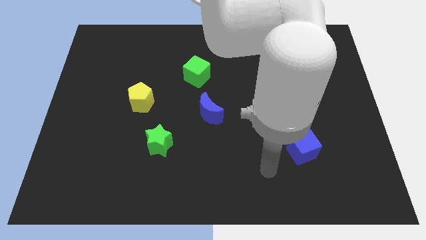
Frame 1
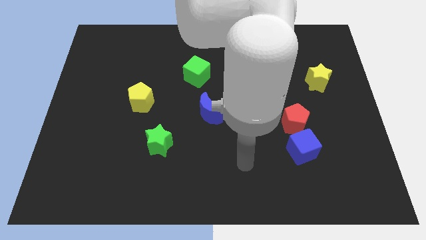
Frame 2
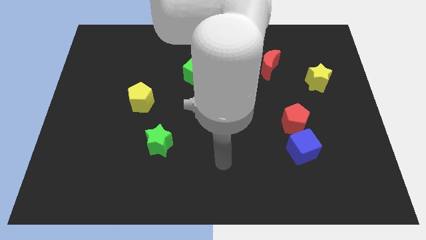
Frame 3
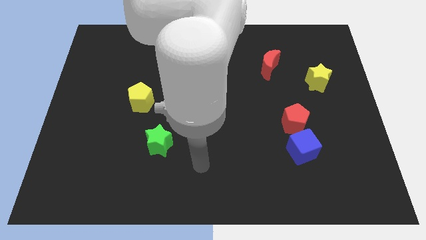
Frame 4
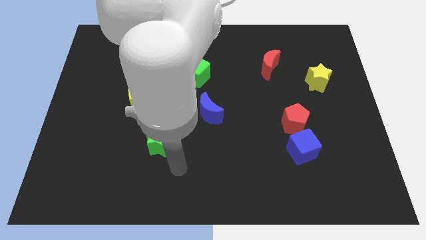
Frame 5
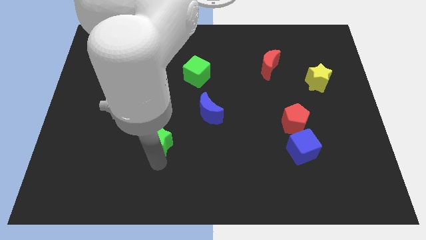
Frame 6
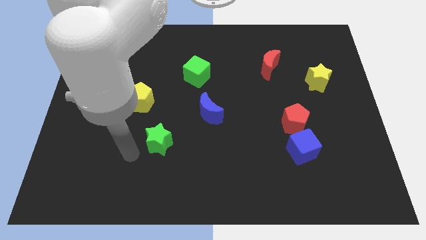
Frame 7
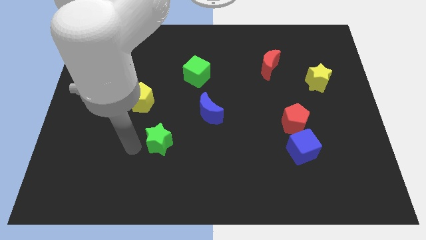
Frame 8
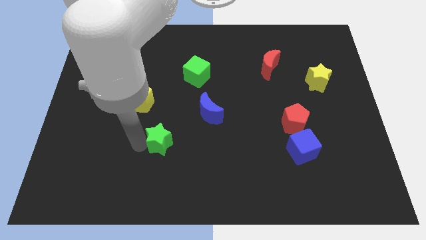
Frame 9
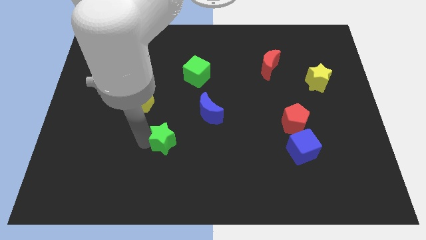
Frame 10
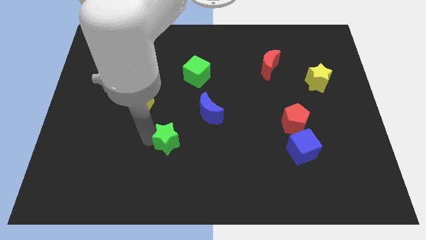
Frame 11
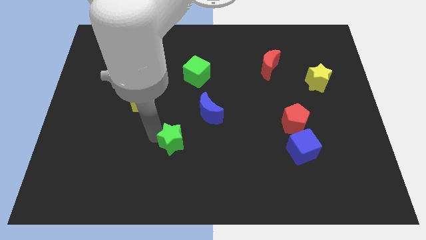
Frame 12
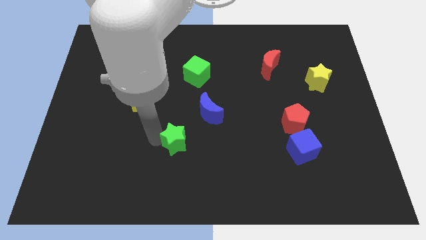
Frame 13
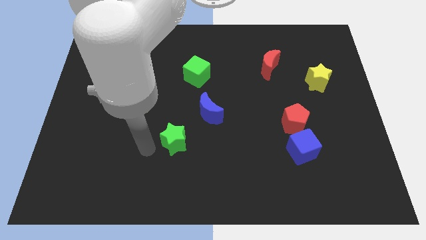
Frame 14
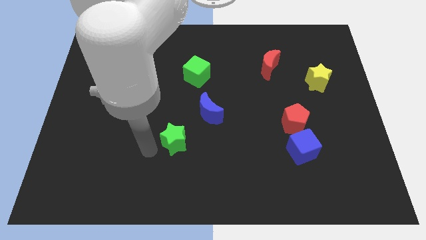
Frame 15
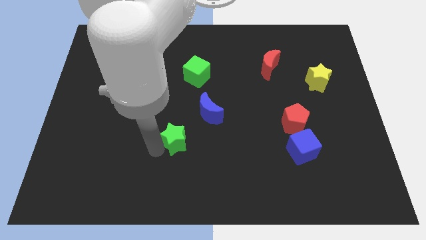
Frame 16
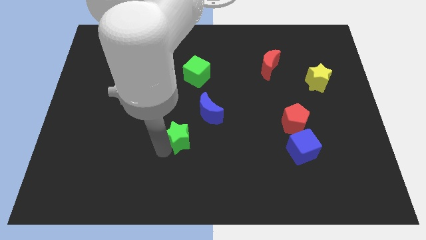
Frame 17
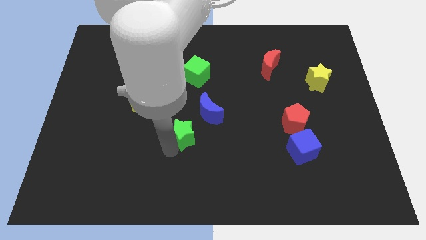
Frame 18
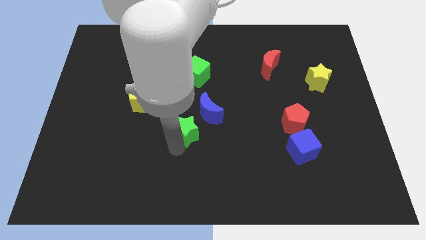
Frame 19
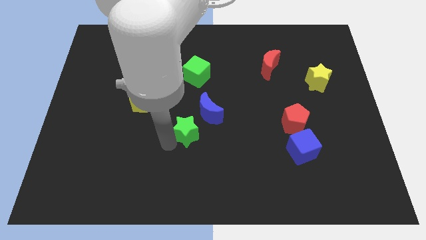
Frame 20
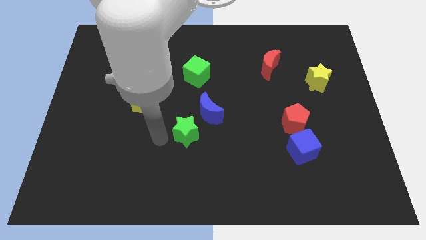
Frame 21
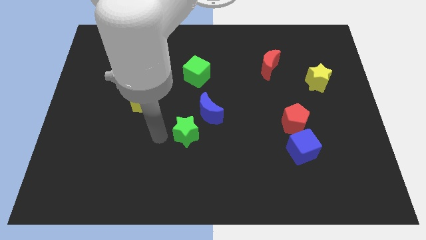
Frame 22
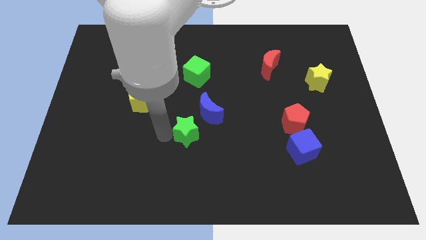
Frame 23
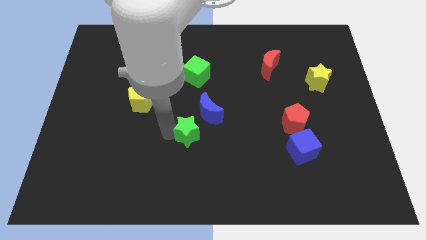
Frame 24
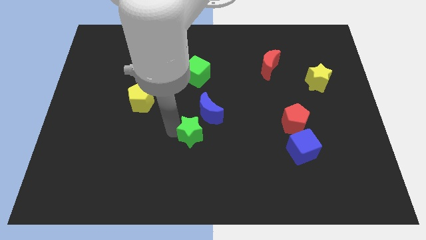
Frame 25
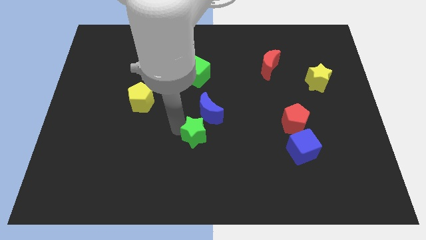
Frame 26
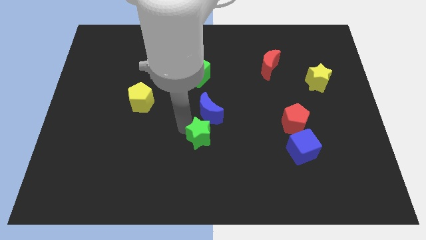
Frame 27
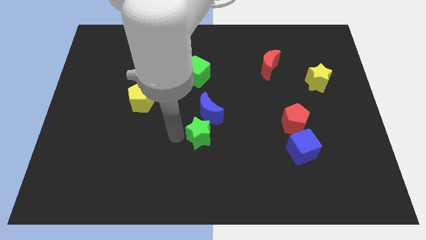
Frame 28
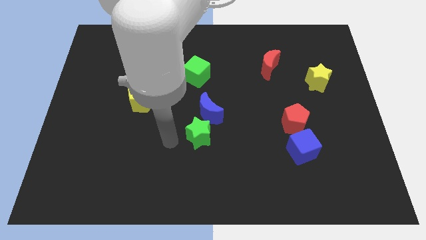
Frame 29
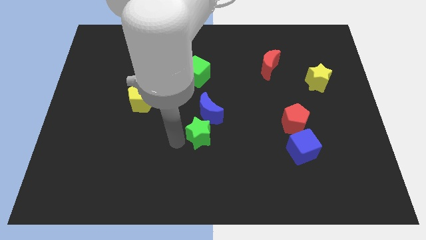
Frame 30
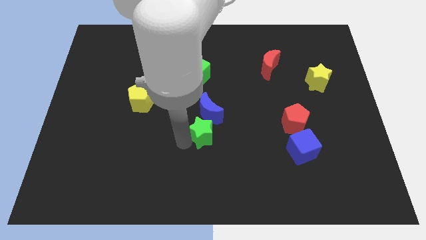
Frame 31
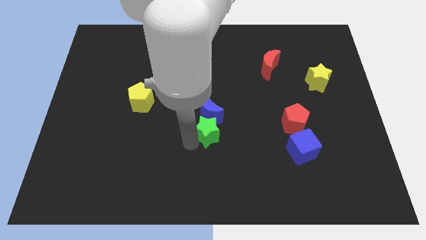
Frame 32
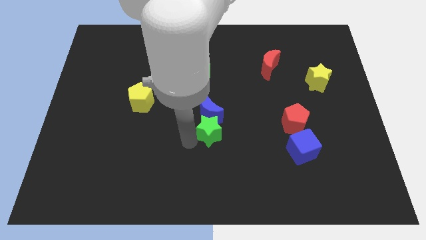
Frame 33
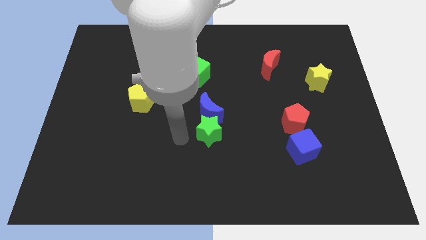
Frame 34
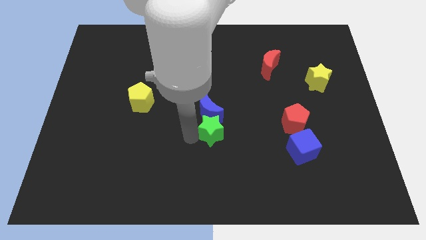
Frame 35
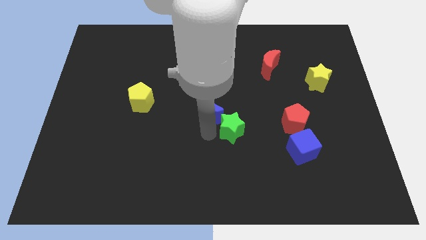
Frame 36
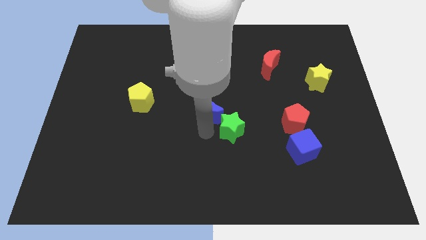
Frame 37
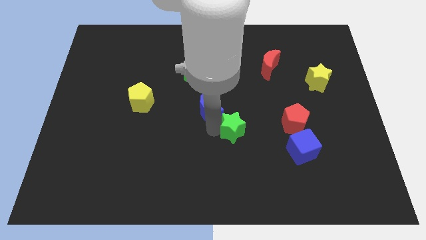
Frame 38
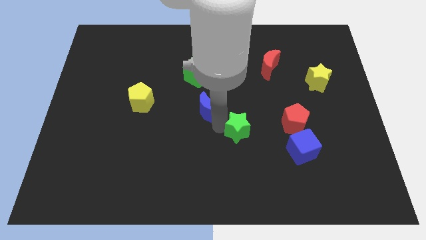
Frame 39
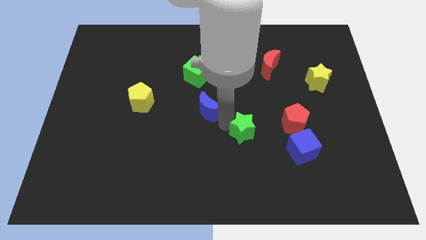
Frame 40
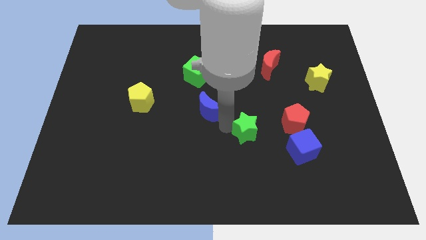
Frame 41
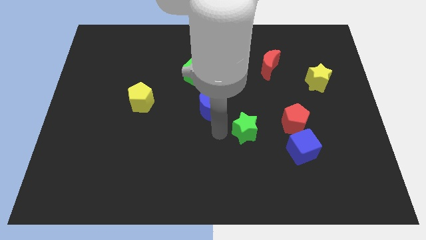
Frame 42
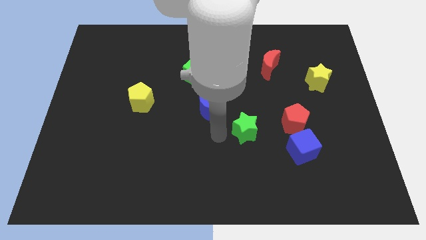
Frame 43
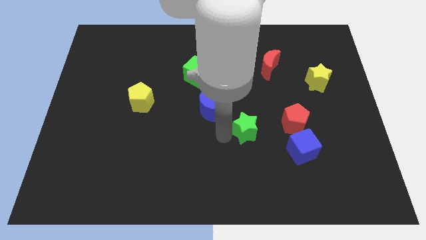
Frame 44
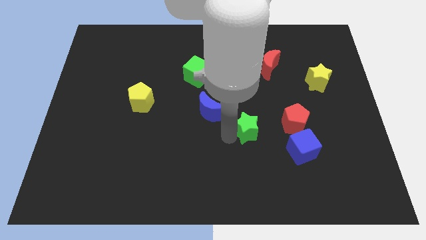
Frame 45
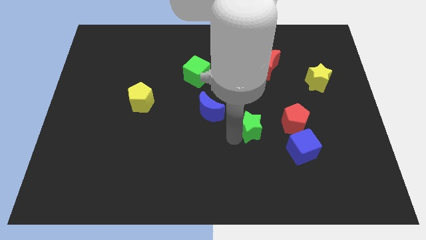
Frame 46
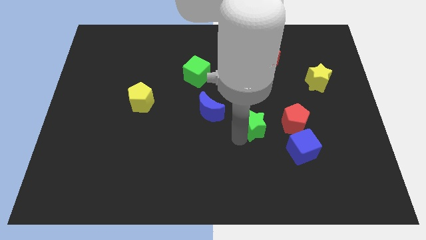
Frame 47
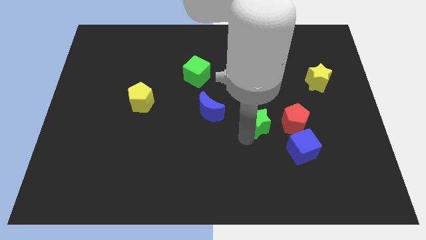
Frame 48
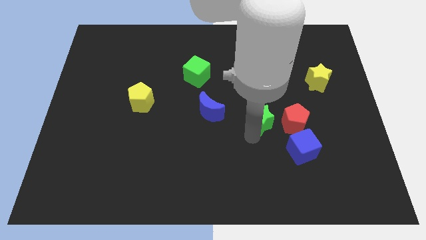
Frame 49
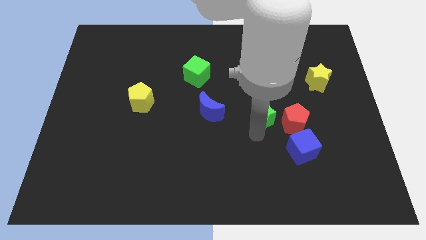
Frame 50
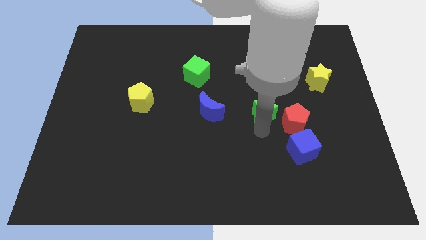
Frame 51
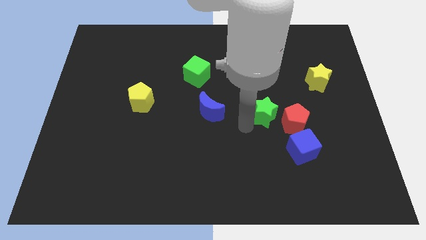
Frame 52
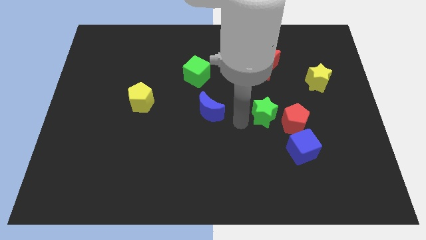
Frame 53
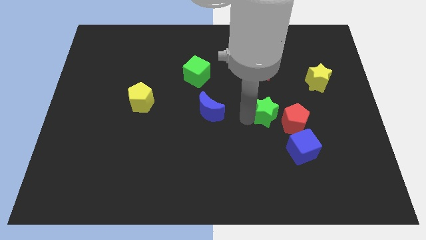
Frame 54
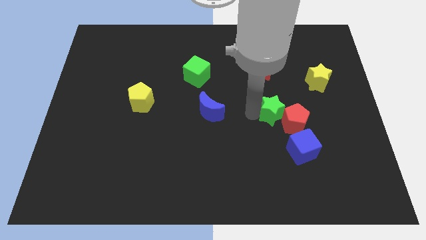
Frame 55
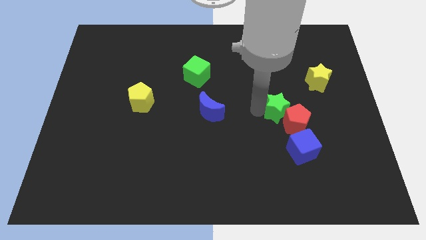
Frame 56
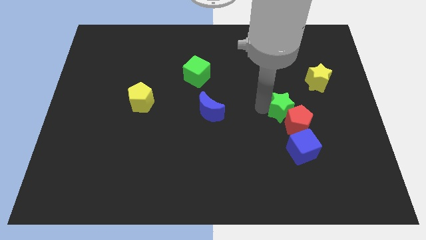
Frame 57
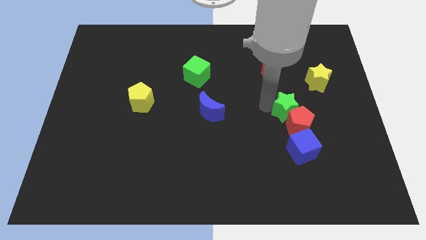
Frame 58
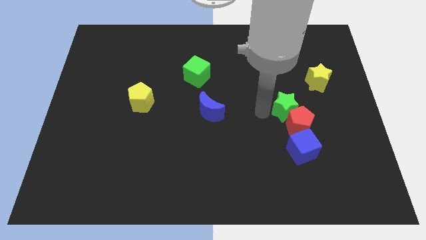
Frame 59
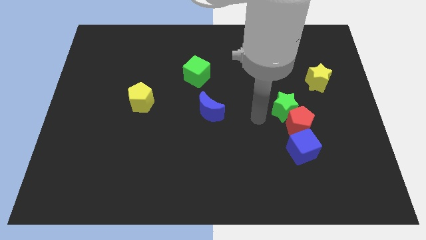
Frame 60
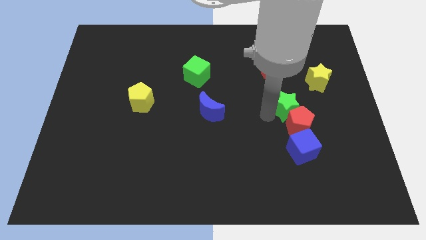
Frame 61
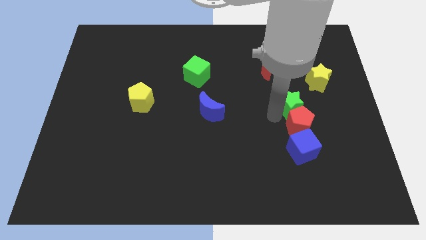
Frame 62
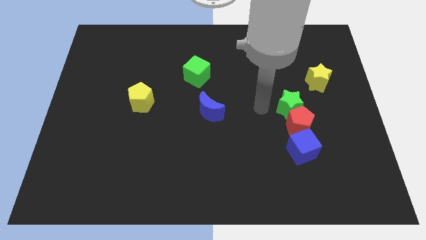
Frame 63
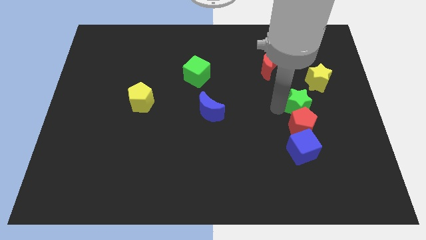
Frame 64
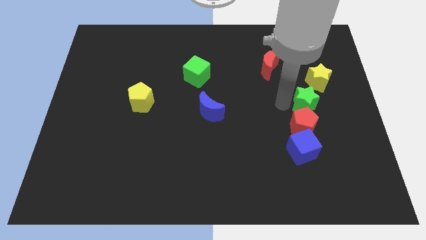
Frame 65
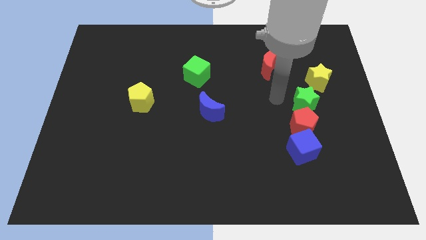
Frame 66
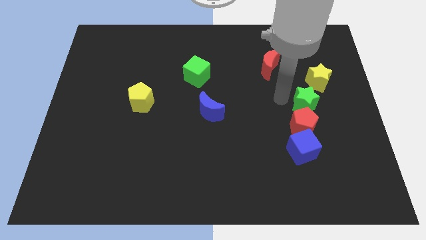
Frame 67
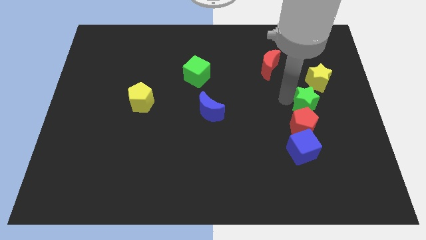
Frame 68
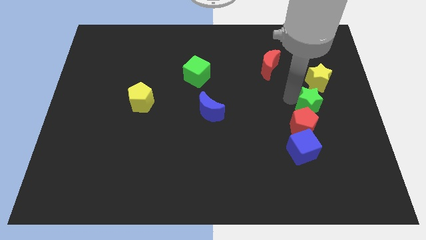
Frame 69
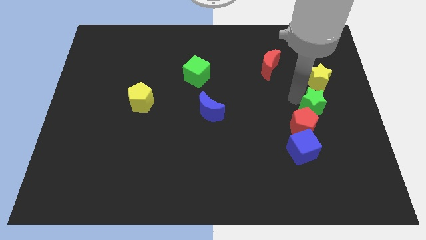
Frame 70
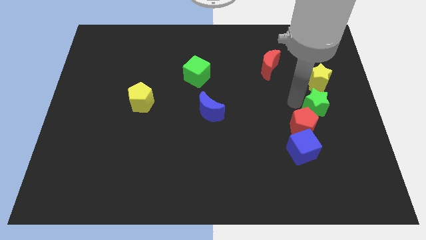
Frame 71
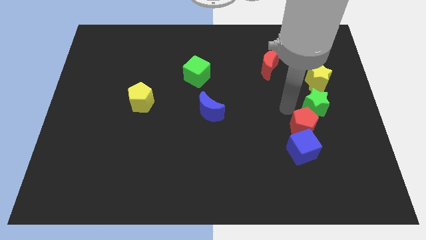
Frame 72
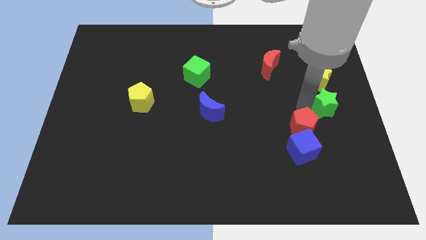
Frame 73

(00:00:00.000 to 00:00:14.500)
push the green star to the right side
